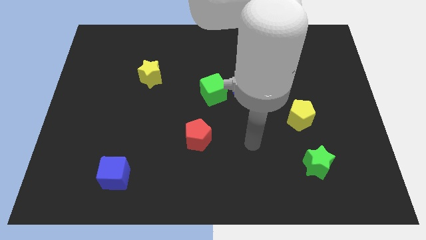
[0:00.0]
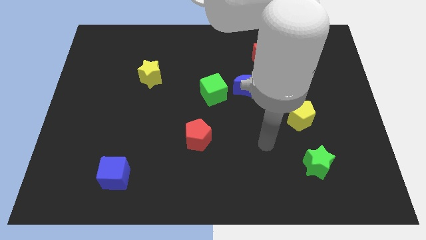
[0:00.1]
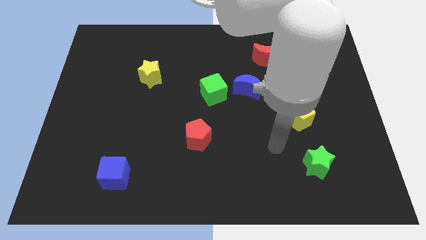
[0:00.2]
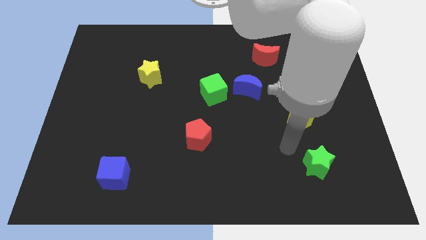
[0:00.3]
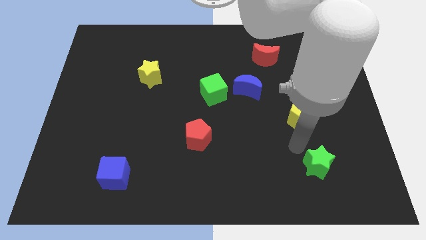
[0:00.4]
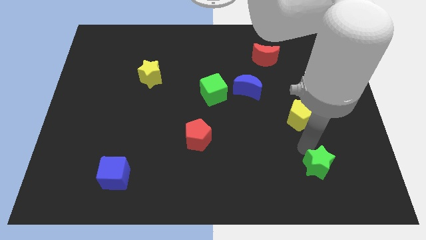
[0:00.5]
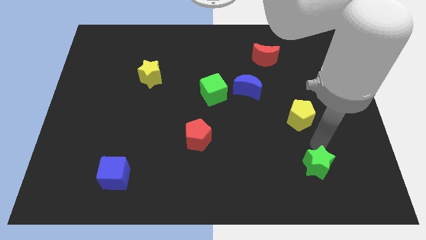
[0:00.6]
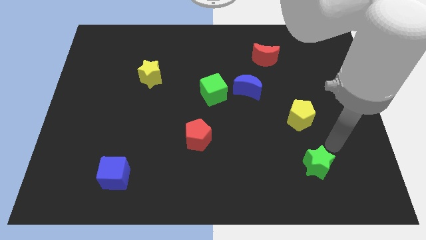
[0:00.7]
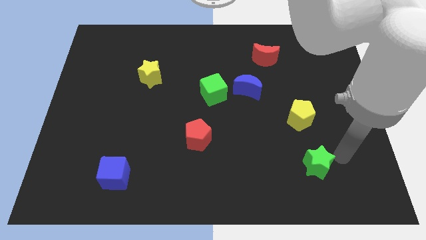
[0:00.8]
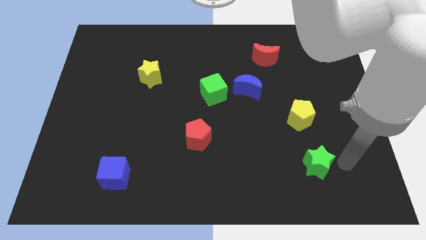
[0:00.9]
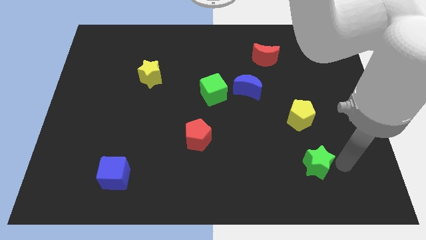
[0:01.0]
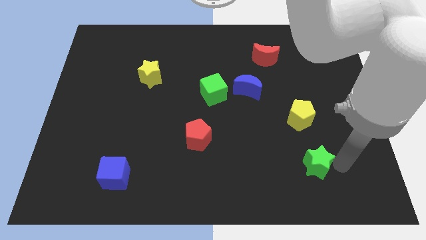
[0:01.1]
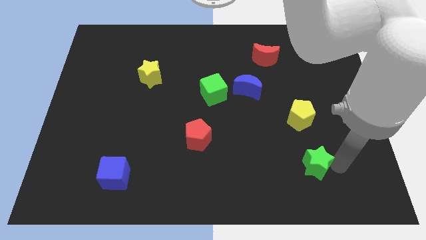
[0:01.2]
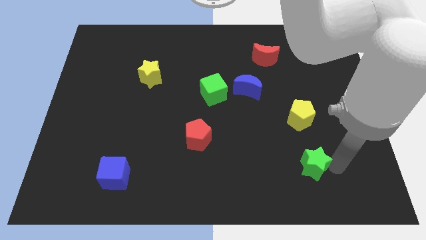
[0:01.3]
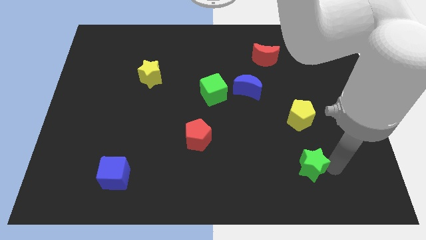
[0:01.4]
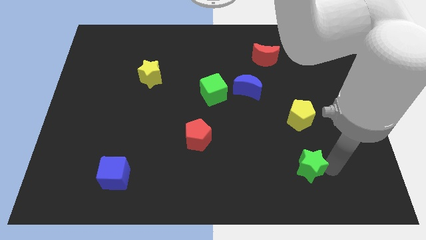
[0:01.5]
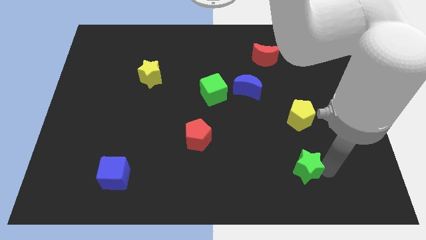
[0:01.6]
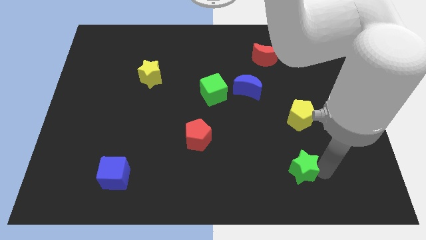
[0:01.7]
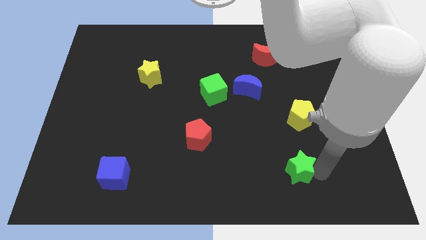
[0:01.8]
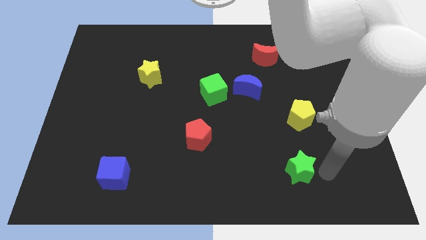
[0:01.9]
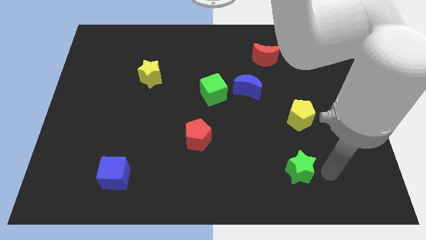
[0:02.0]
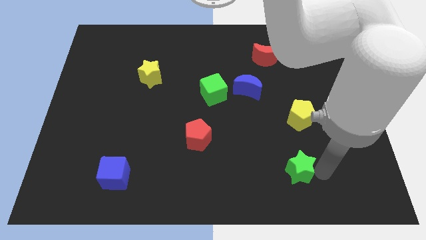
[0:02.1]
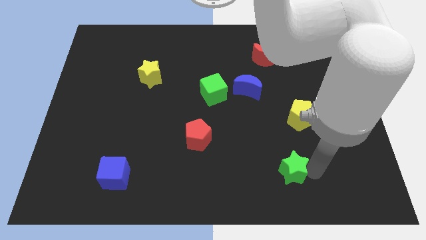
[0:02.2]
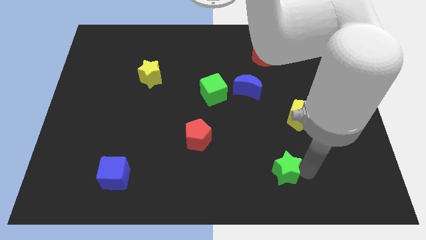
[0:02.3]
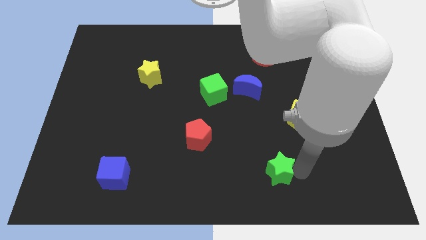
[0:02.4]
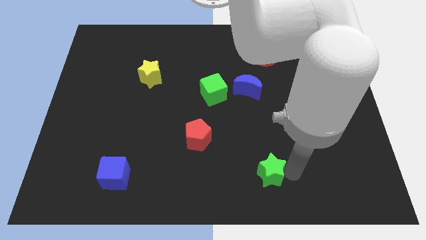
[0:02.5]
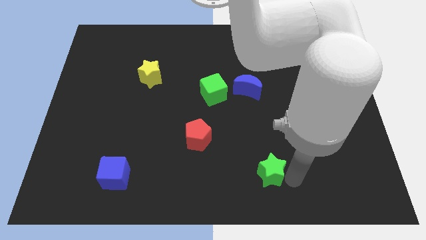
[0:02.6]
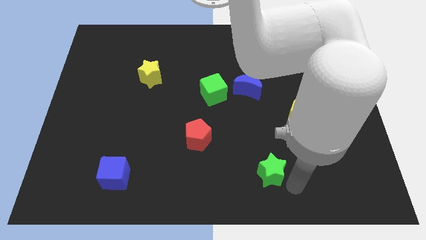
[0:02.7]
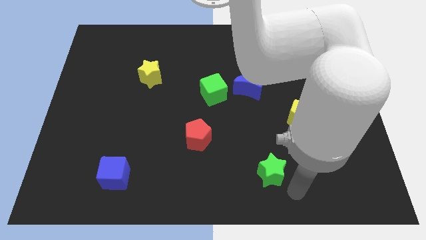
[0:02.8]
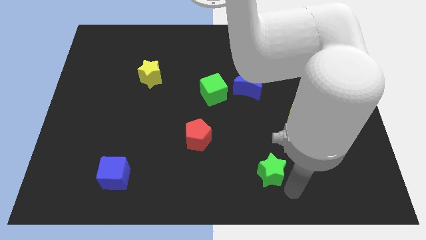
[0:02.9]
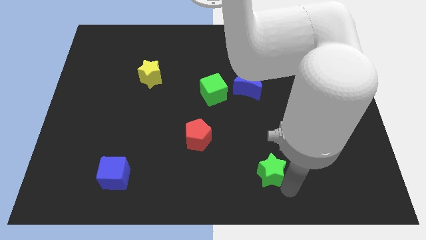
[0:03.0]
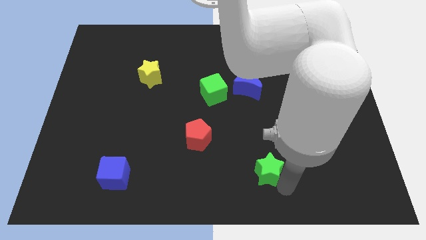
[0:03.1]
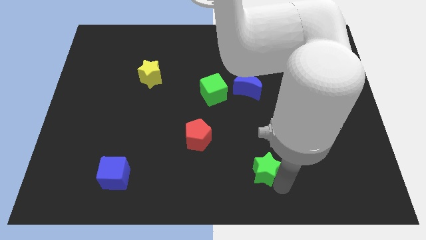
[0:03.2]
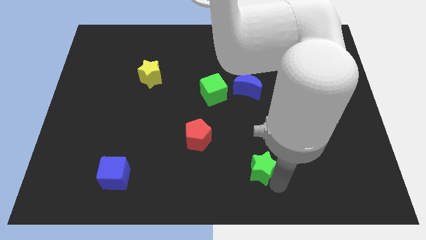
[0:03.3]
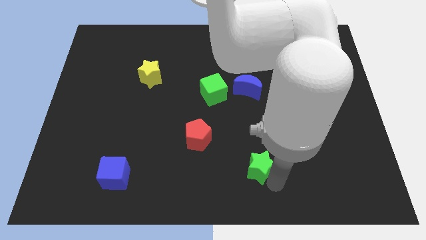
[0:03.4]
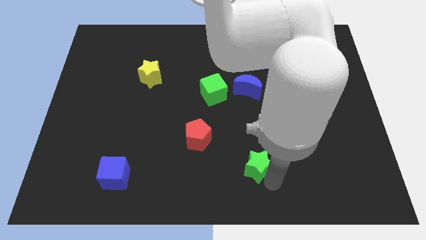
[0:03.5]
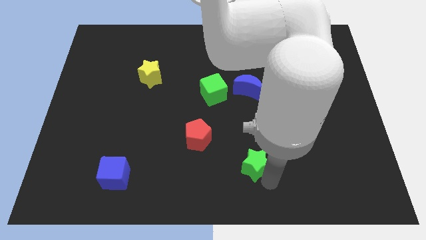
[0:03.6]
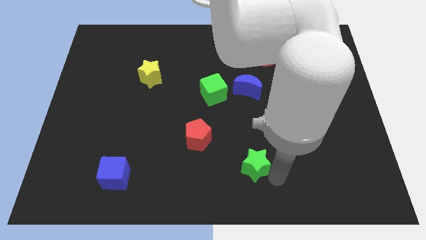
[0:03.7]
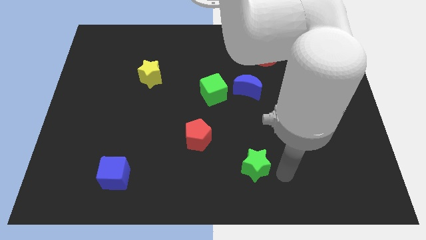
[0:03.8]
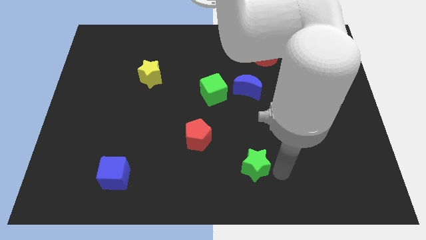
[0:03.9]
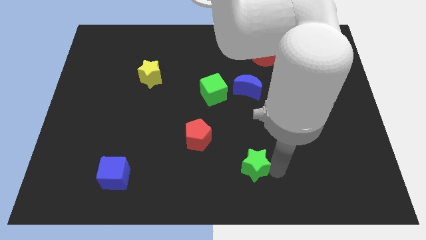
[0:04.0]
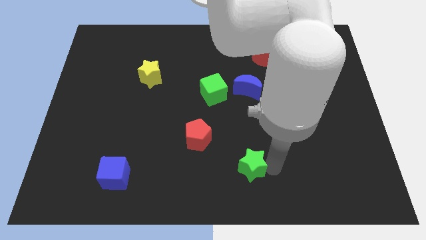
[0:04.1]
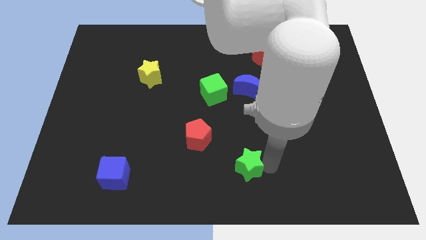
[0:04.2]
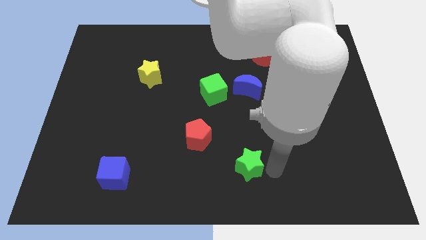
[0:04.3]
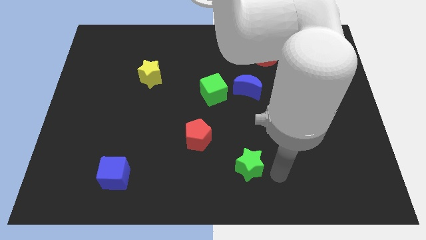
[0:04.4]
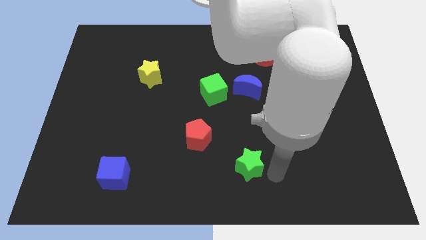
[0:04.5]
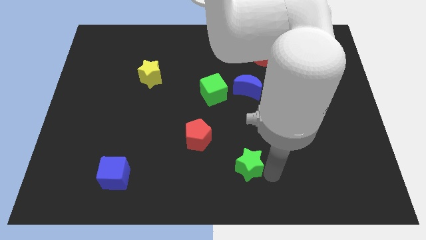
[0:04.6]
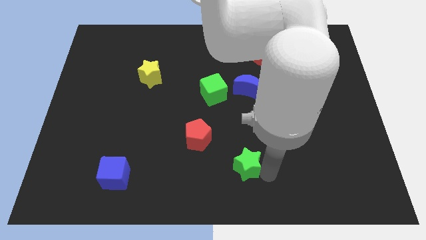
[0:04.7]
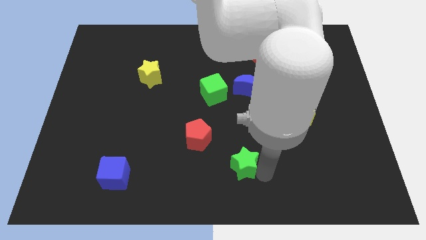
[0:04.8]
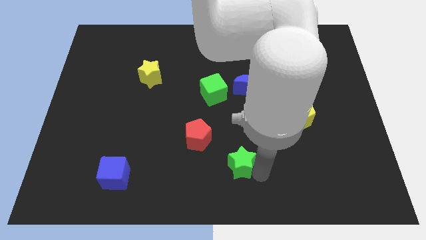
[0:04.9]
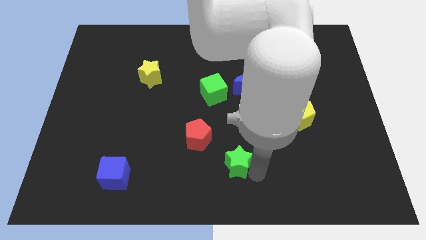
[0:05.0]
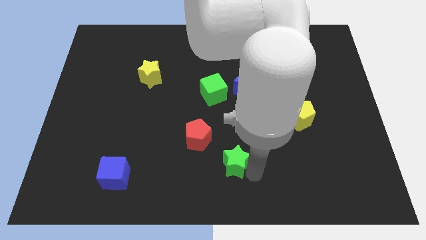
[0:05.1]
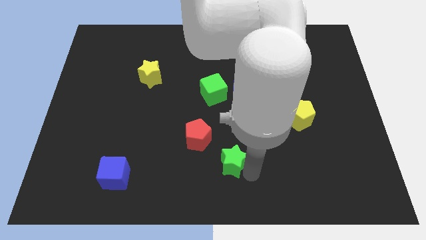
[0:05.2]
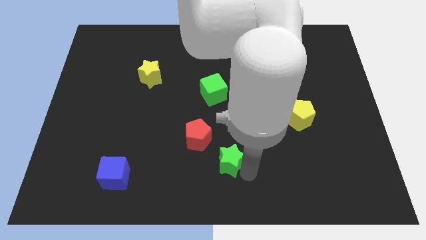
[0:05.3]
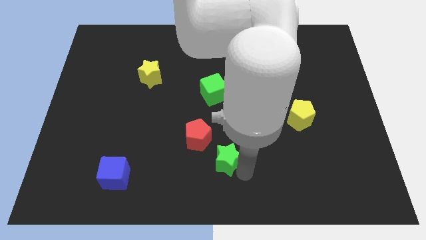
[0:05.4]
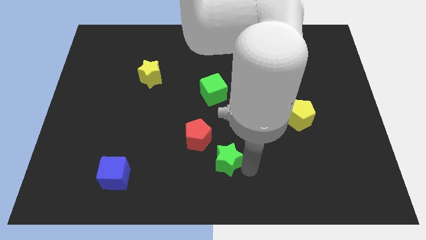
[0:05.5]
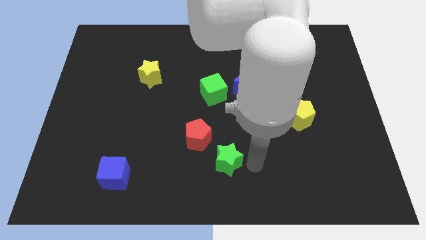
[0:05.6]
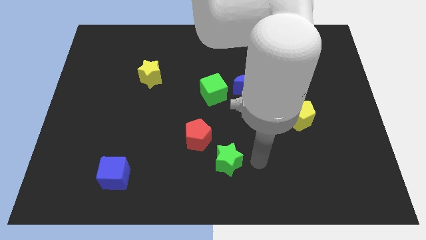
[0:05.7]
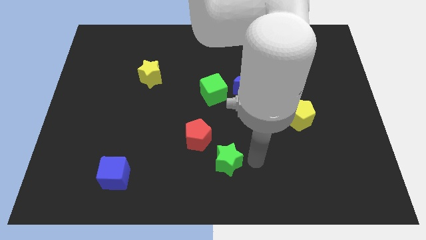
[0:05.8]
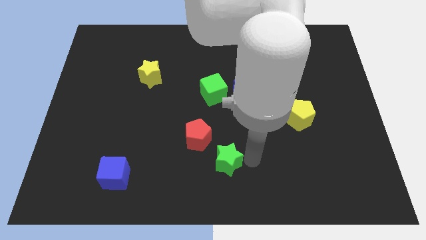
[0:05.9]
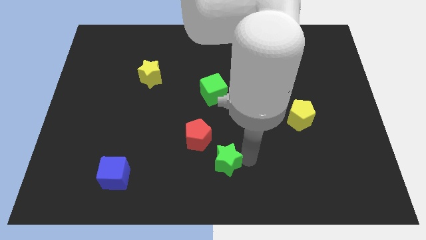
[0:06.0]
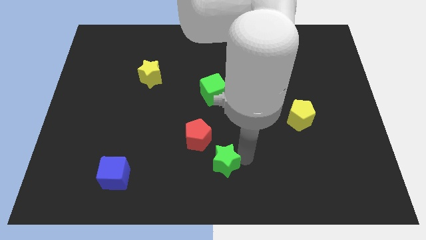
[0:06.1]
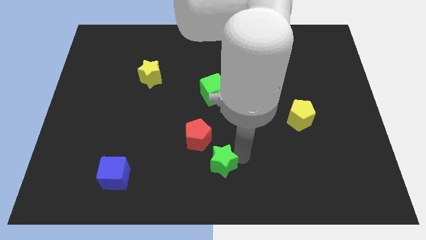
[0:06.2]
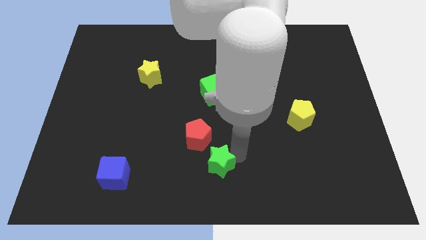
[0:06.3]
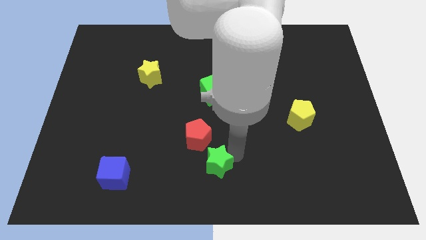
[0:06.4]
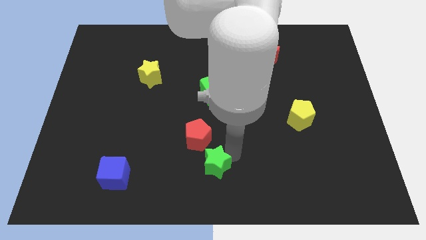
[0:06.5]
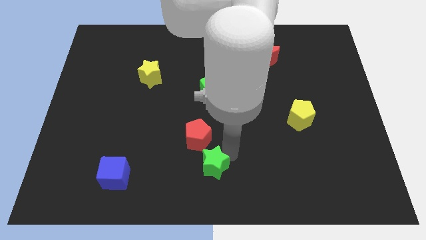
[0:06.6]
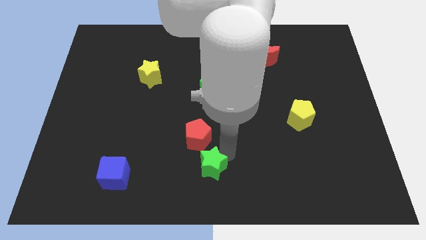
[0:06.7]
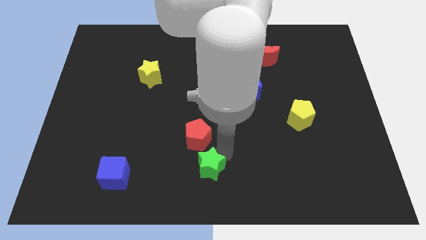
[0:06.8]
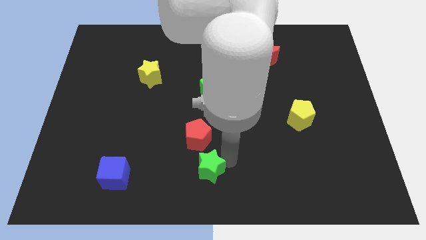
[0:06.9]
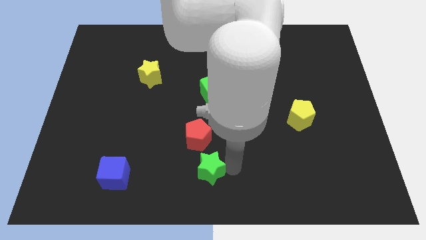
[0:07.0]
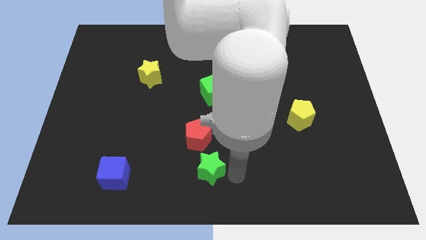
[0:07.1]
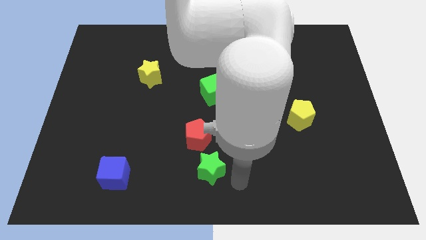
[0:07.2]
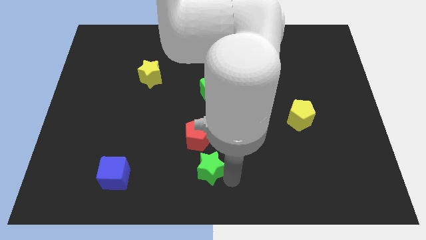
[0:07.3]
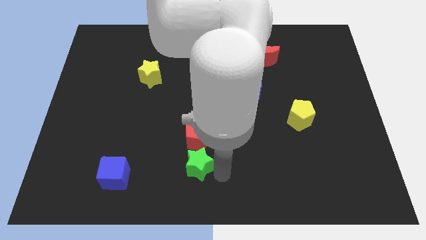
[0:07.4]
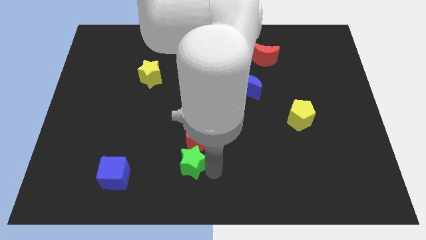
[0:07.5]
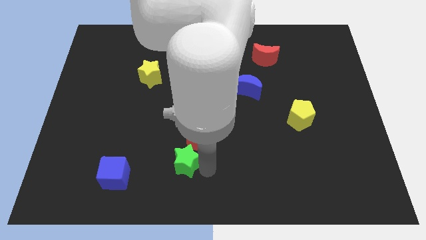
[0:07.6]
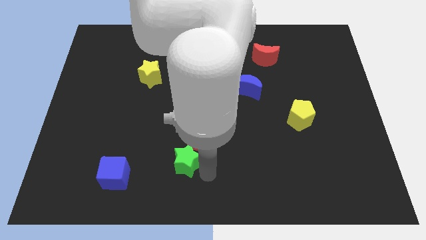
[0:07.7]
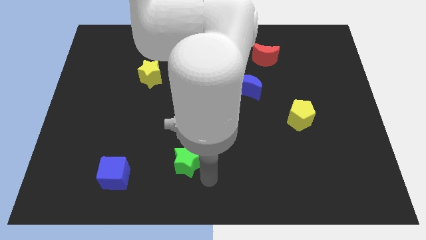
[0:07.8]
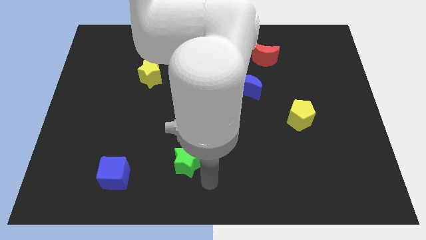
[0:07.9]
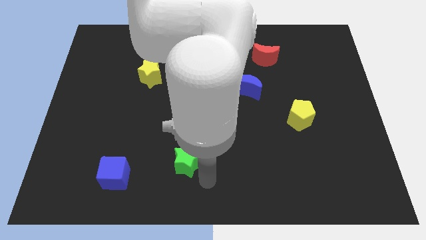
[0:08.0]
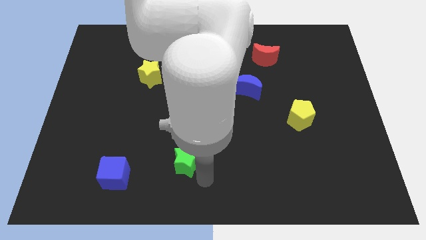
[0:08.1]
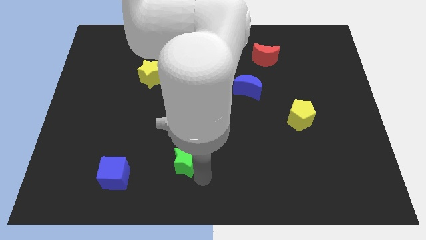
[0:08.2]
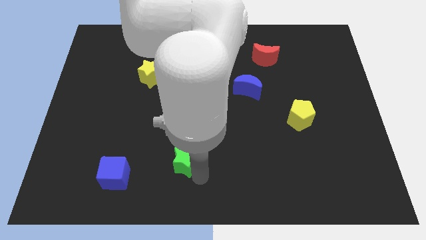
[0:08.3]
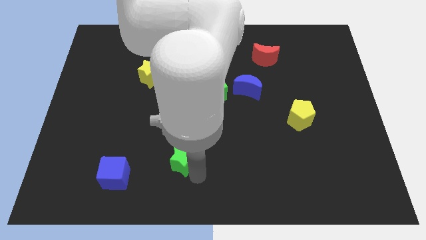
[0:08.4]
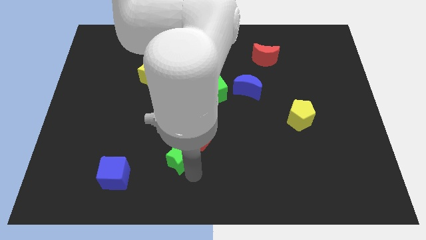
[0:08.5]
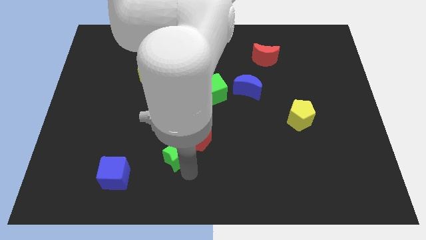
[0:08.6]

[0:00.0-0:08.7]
push the green star just left of the red pentagon

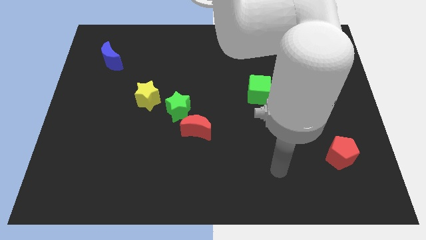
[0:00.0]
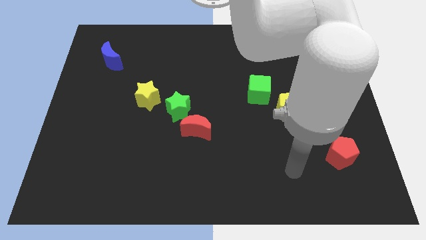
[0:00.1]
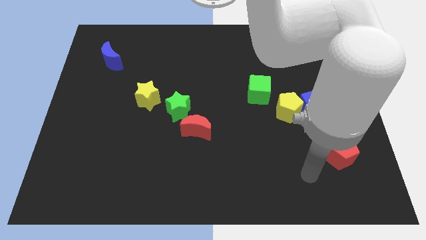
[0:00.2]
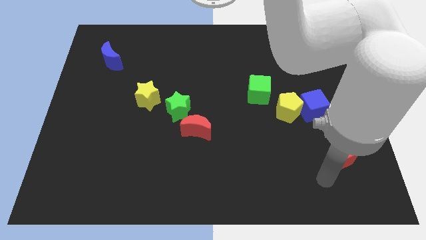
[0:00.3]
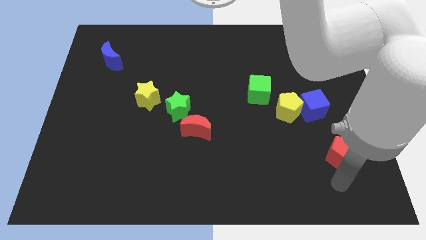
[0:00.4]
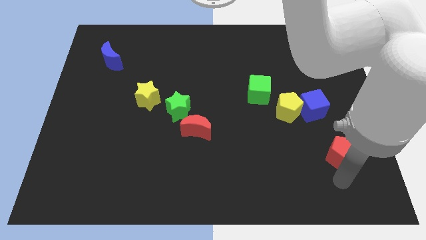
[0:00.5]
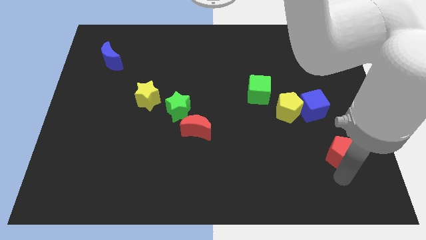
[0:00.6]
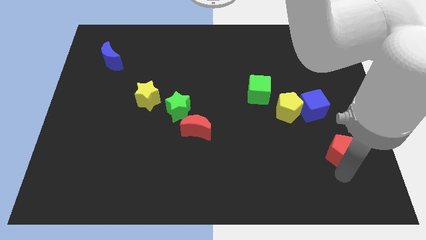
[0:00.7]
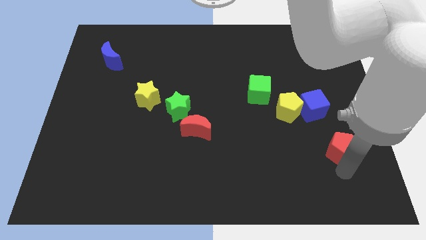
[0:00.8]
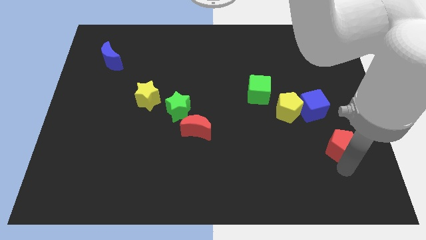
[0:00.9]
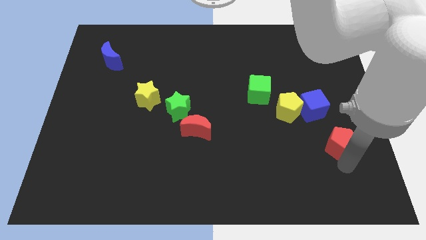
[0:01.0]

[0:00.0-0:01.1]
slide the red pentagon to the bottom right of the blue cube
